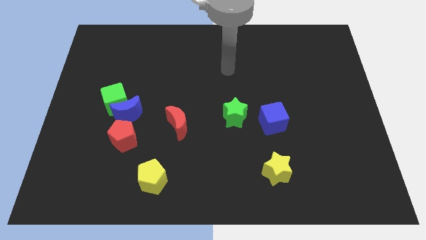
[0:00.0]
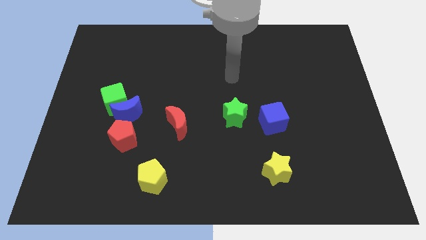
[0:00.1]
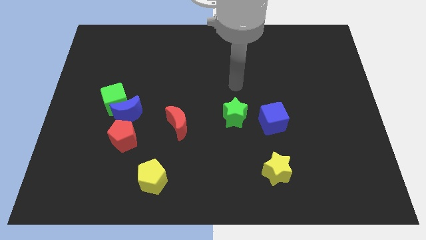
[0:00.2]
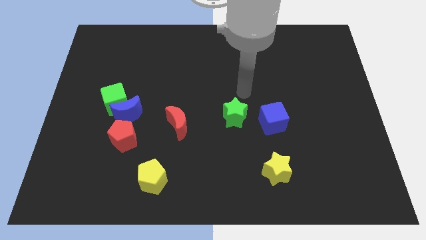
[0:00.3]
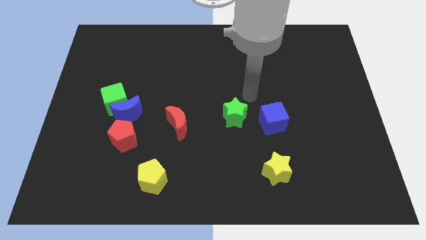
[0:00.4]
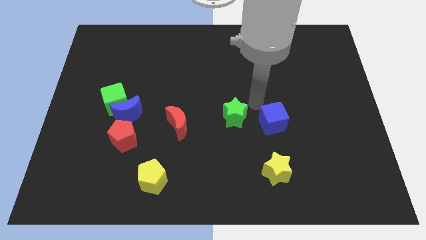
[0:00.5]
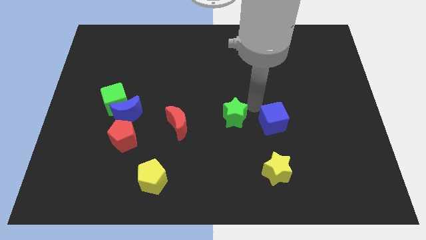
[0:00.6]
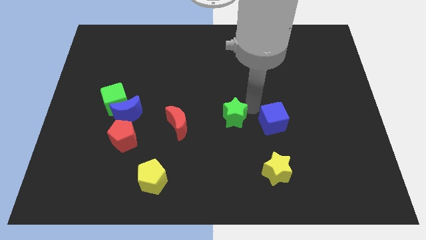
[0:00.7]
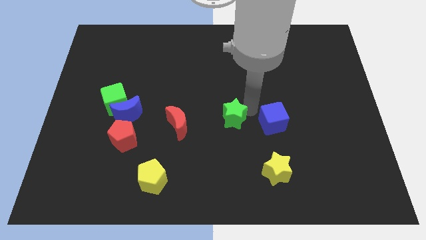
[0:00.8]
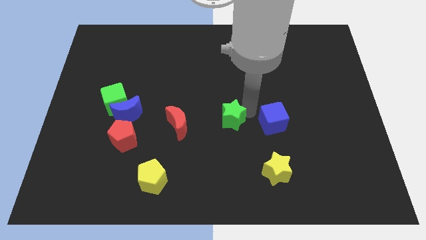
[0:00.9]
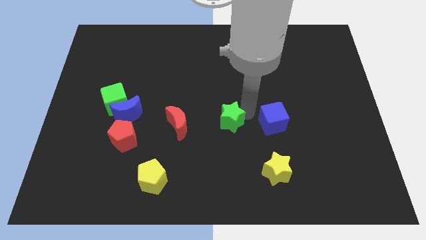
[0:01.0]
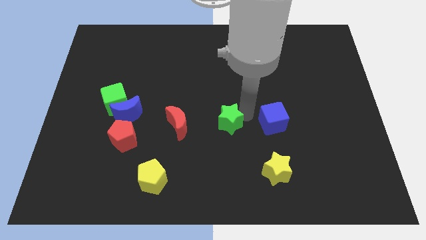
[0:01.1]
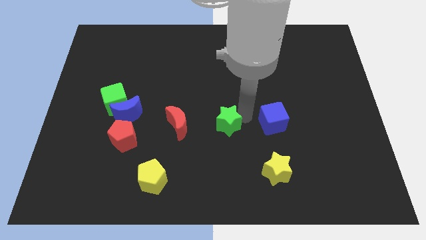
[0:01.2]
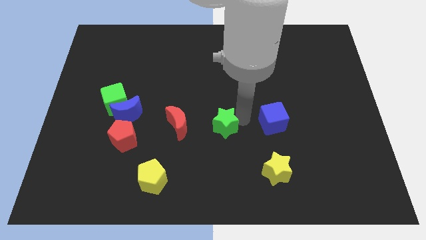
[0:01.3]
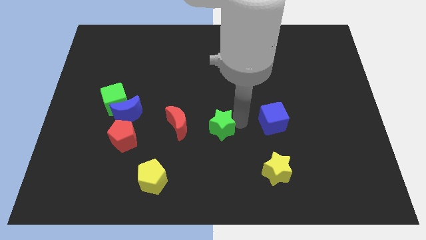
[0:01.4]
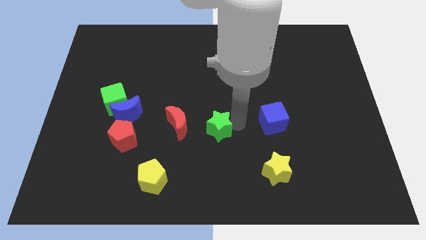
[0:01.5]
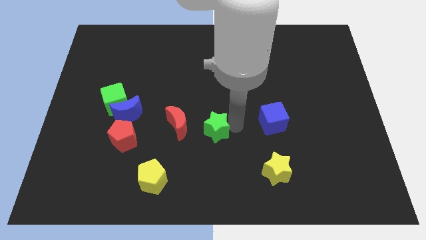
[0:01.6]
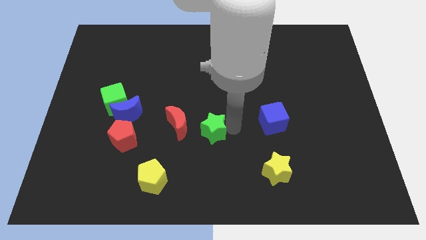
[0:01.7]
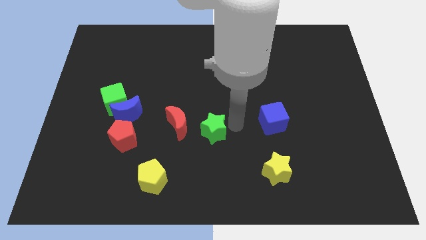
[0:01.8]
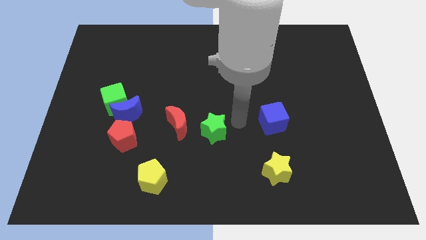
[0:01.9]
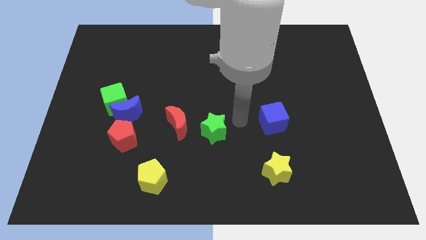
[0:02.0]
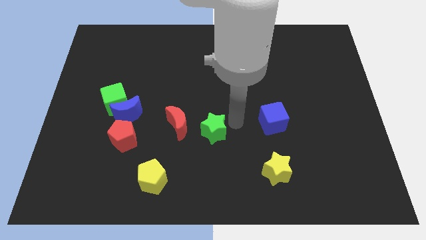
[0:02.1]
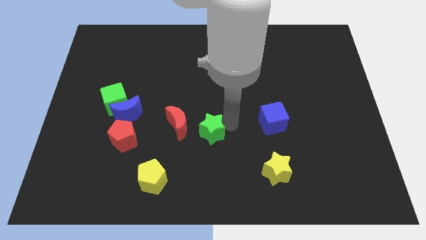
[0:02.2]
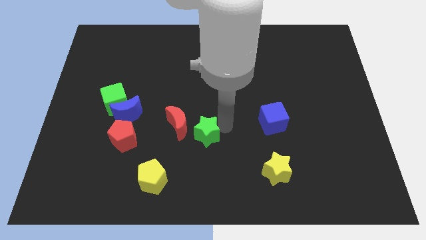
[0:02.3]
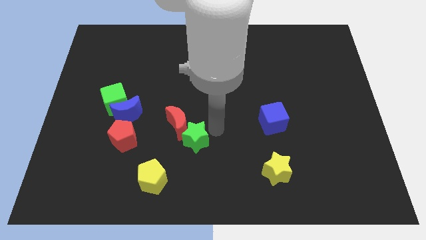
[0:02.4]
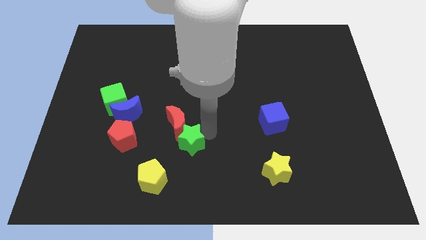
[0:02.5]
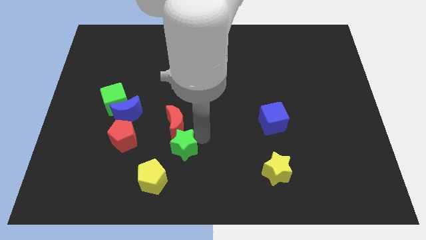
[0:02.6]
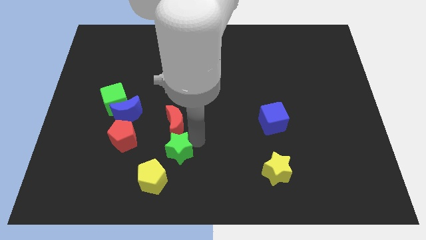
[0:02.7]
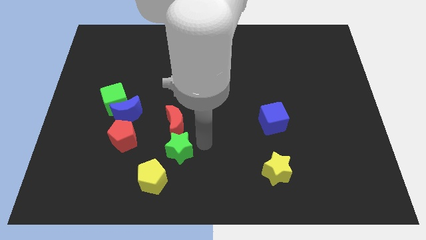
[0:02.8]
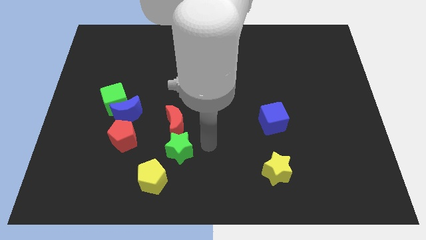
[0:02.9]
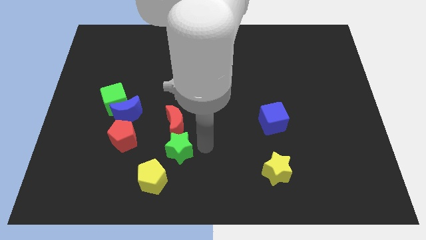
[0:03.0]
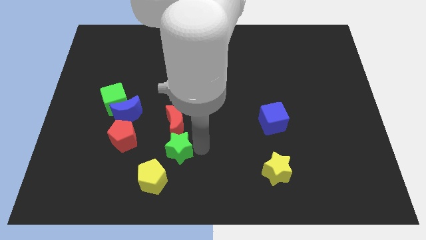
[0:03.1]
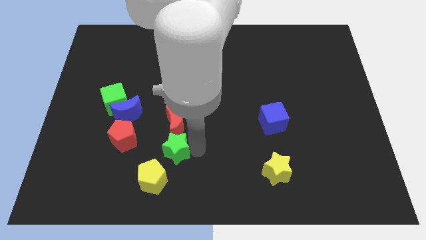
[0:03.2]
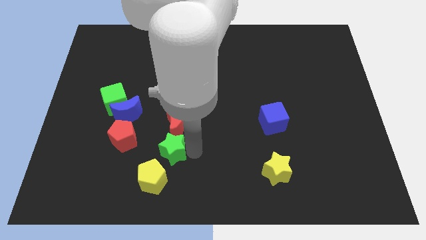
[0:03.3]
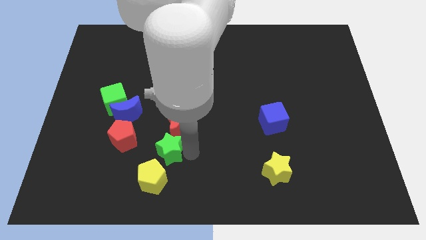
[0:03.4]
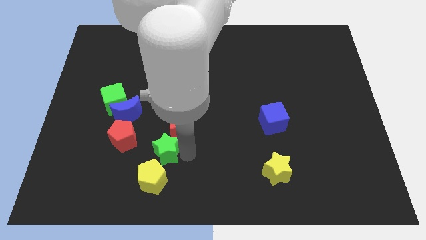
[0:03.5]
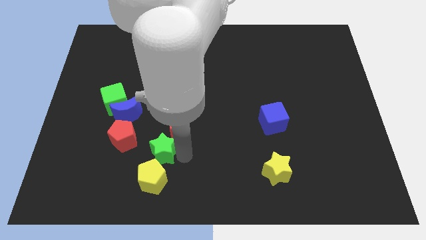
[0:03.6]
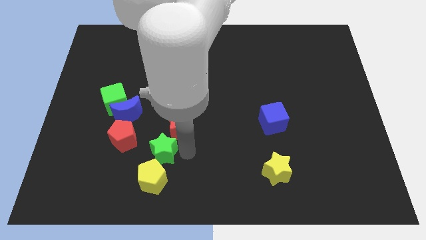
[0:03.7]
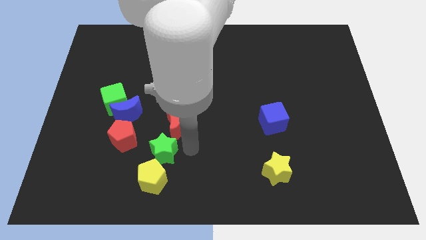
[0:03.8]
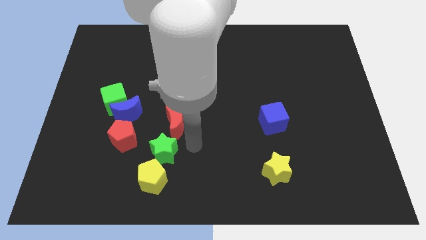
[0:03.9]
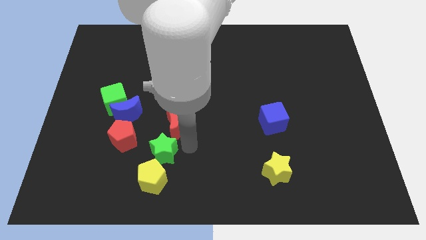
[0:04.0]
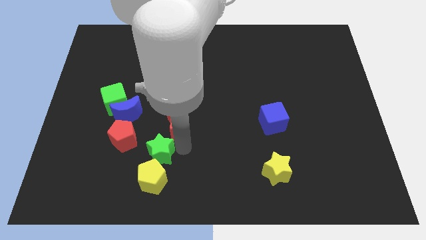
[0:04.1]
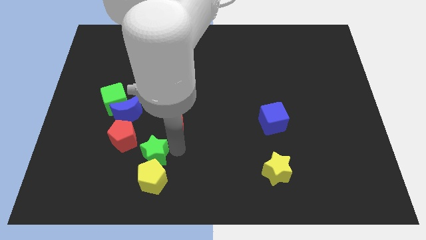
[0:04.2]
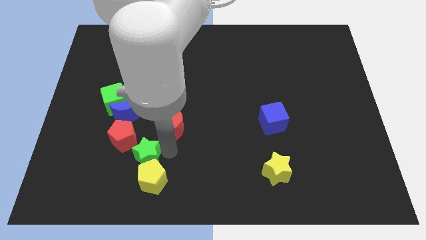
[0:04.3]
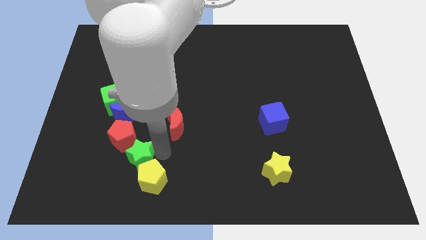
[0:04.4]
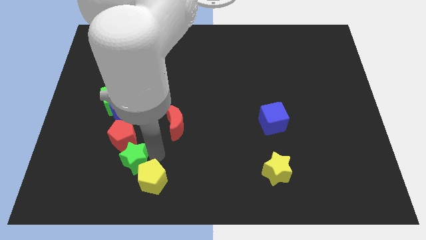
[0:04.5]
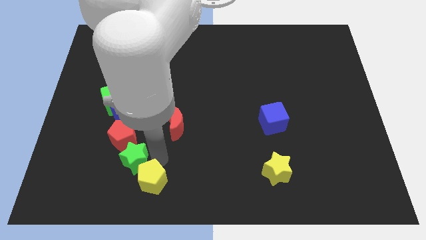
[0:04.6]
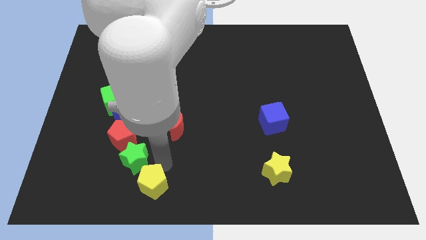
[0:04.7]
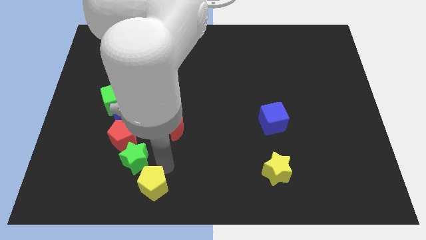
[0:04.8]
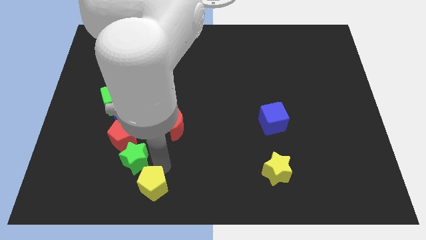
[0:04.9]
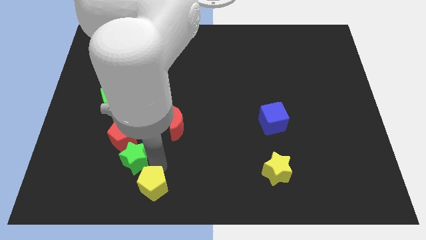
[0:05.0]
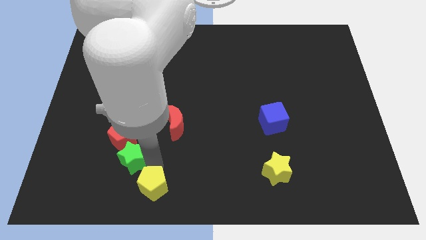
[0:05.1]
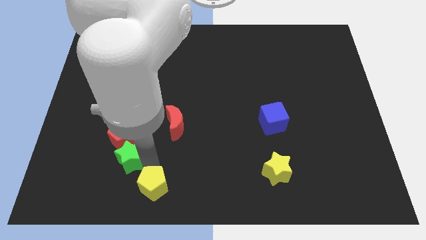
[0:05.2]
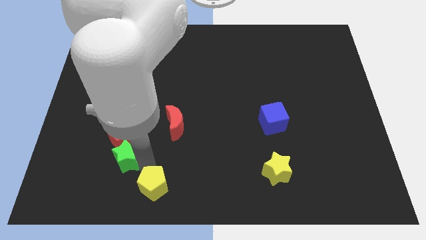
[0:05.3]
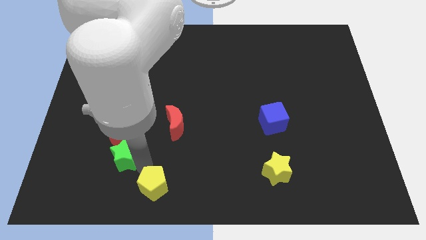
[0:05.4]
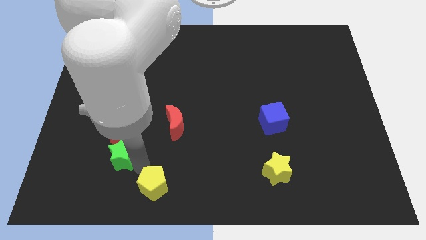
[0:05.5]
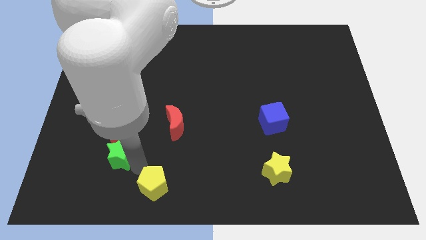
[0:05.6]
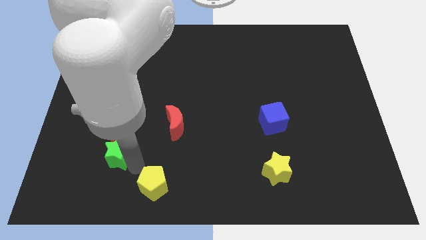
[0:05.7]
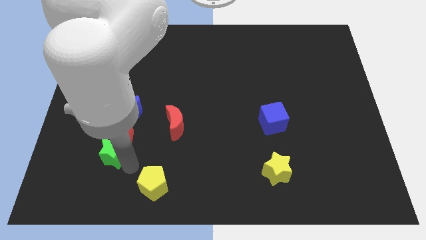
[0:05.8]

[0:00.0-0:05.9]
move the green star left

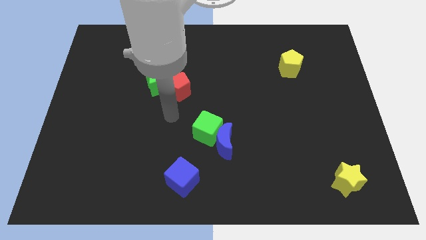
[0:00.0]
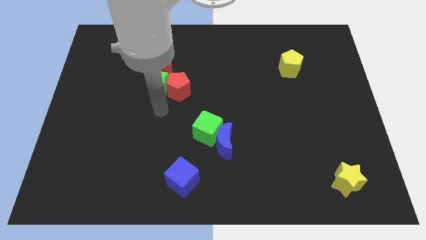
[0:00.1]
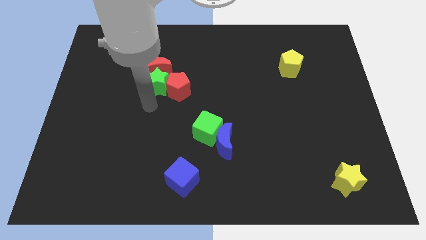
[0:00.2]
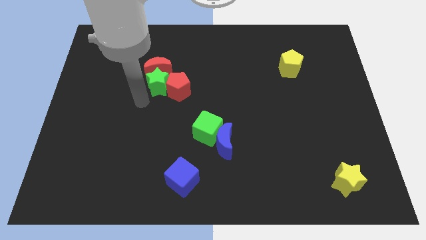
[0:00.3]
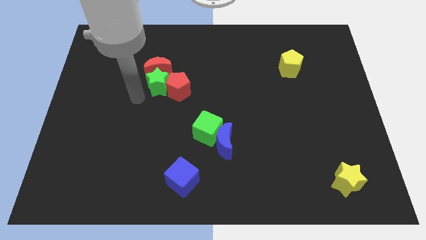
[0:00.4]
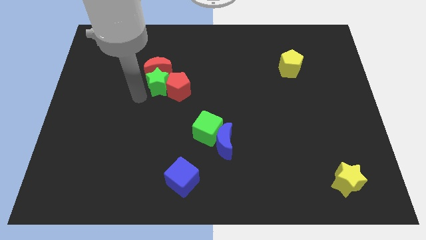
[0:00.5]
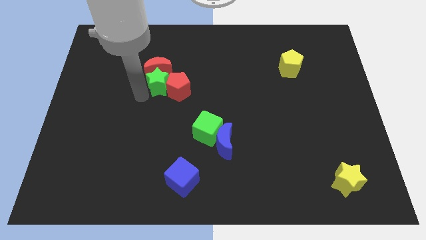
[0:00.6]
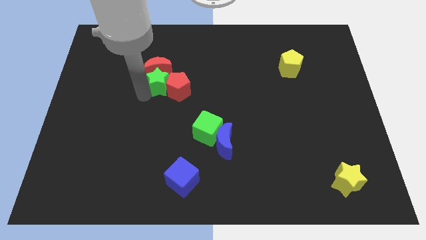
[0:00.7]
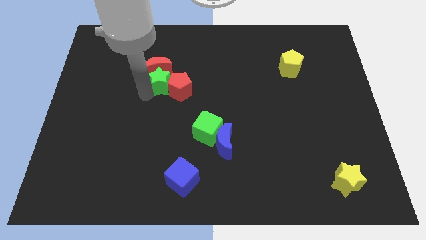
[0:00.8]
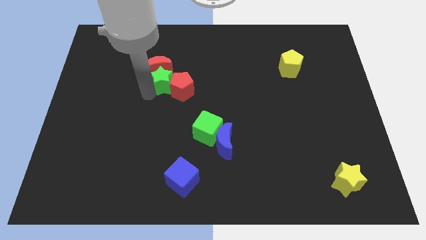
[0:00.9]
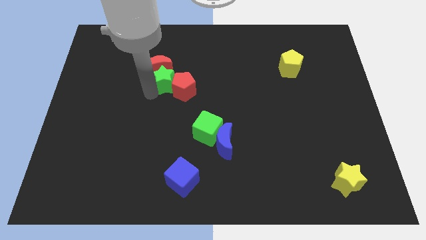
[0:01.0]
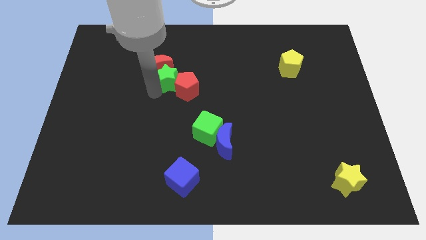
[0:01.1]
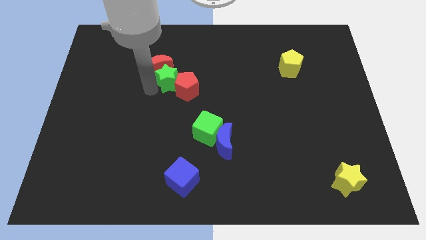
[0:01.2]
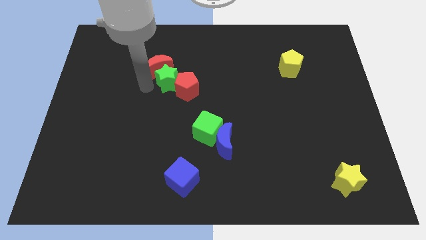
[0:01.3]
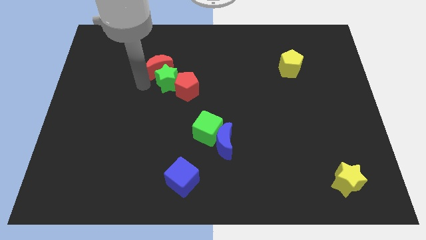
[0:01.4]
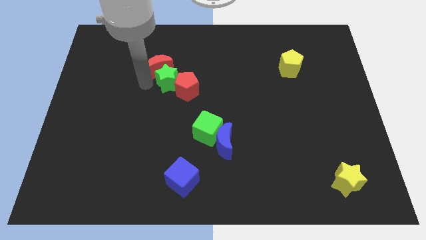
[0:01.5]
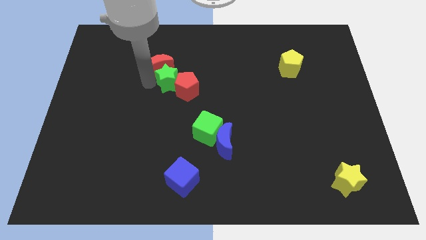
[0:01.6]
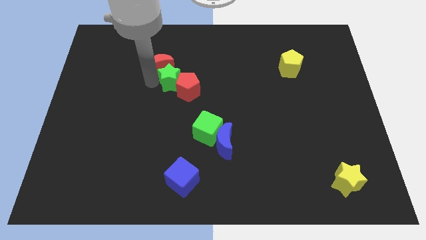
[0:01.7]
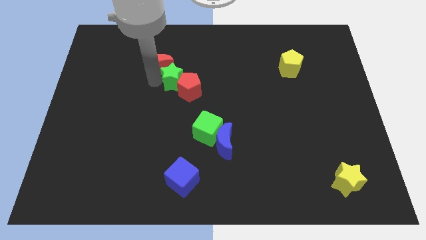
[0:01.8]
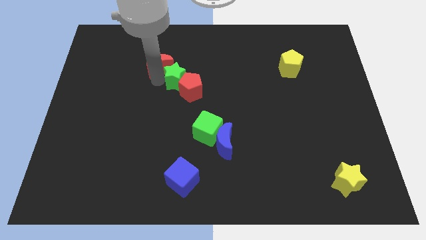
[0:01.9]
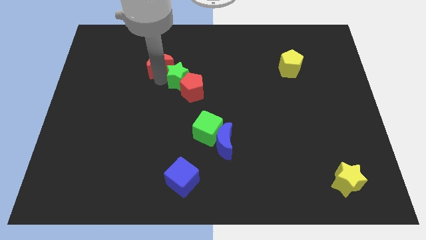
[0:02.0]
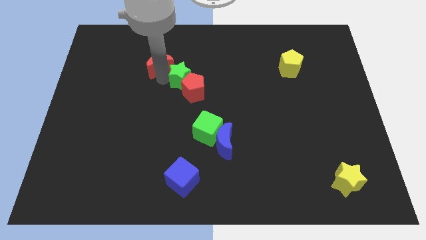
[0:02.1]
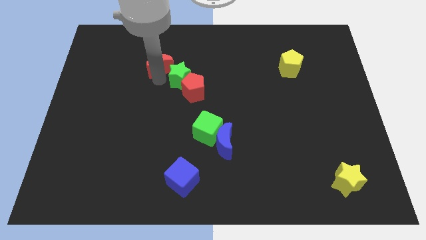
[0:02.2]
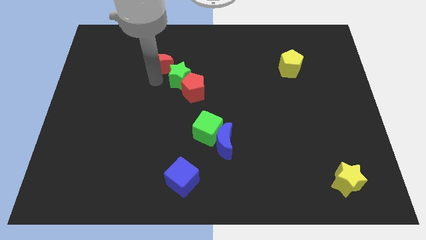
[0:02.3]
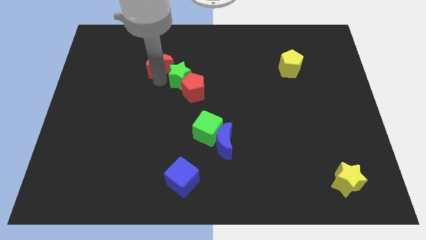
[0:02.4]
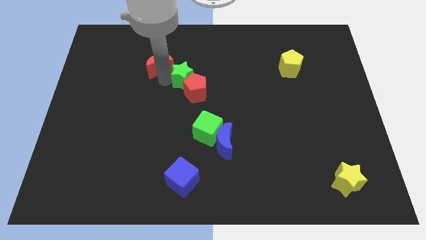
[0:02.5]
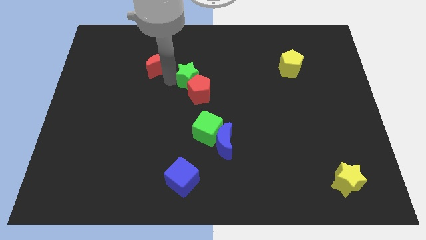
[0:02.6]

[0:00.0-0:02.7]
slide the green star to the right somewhat
